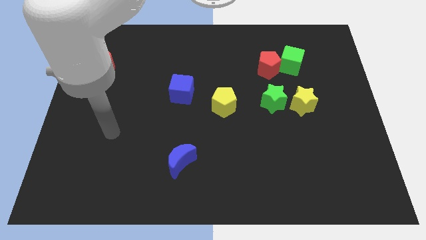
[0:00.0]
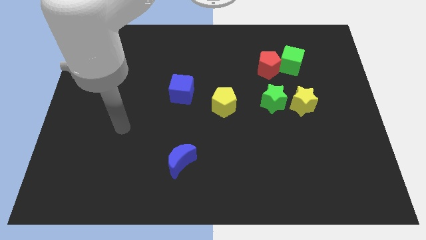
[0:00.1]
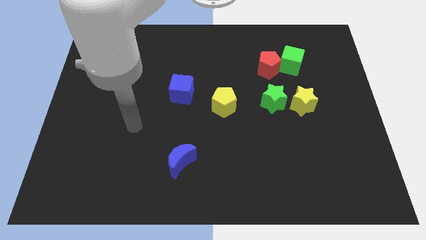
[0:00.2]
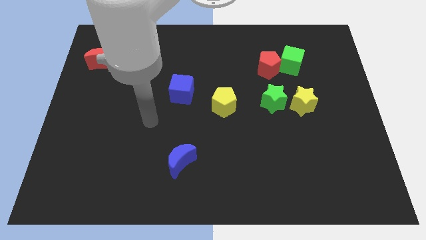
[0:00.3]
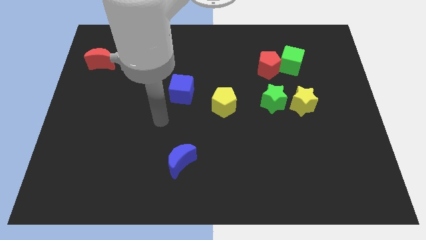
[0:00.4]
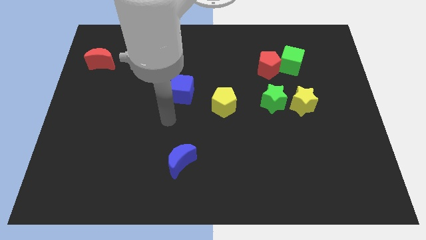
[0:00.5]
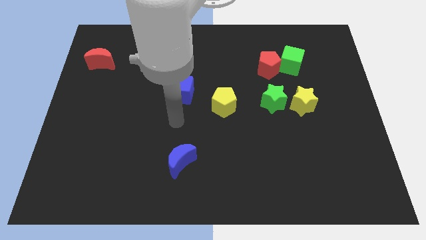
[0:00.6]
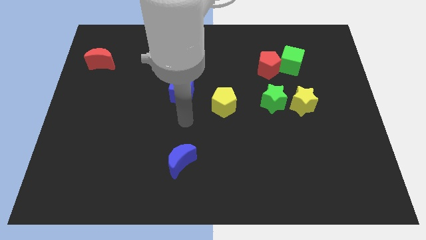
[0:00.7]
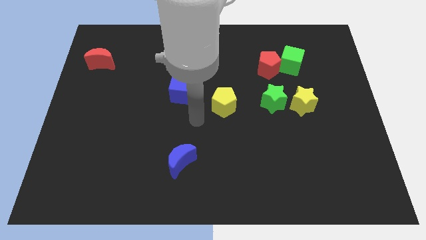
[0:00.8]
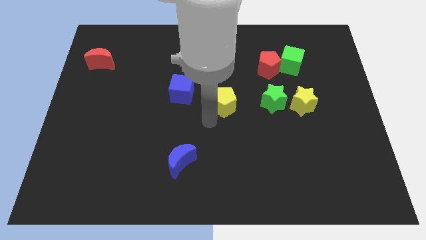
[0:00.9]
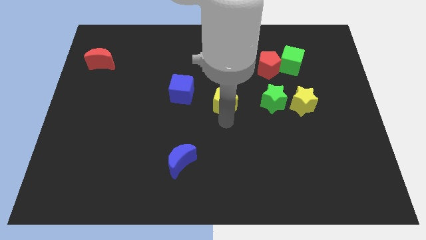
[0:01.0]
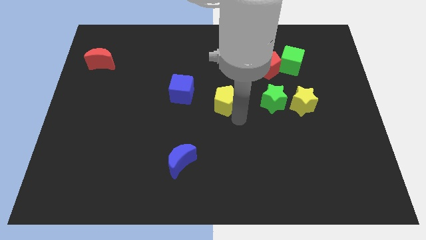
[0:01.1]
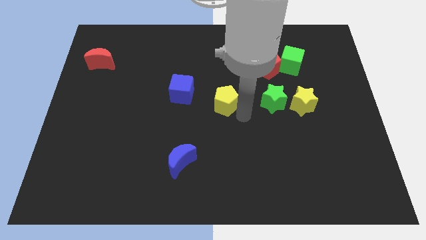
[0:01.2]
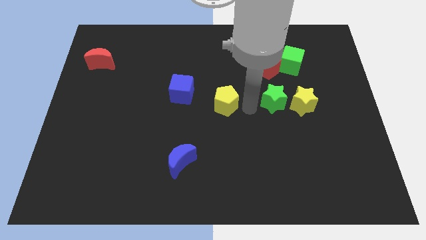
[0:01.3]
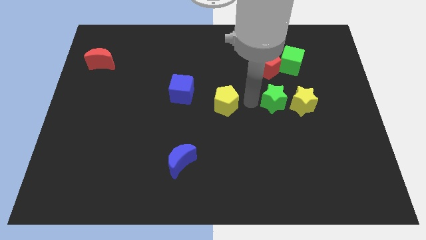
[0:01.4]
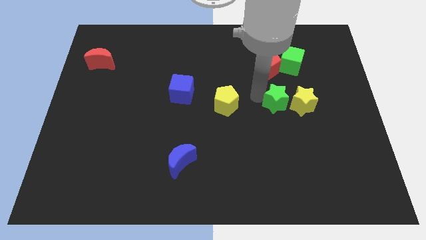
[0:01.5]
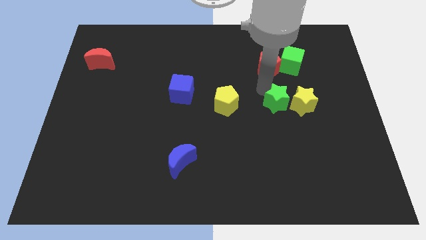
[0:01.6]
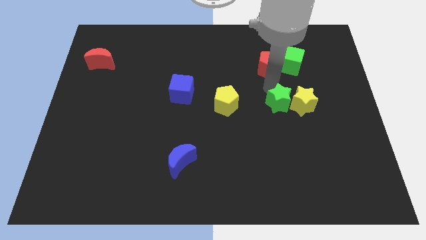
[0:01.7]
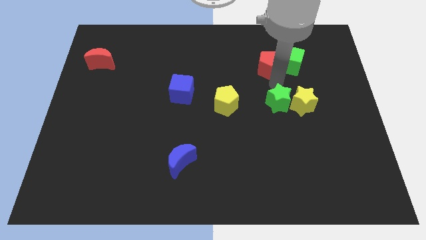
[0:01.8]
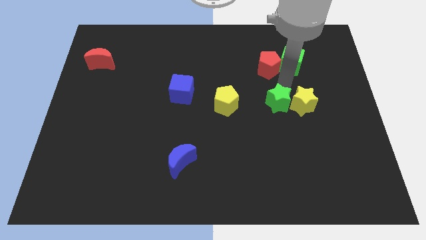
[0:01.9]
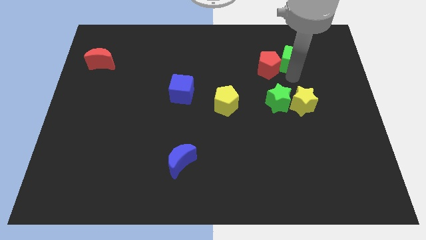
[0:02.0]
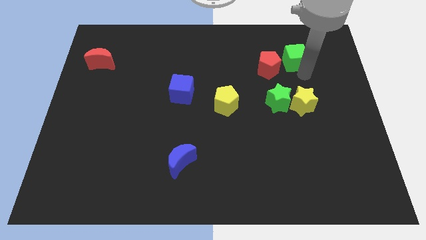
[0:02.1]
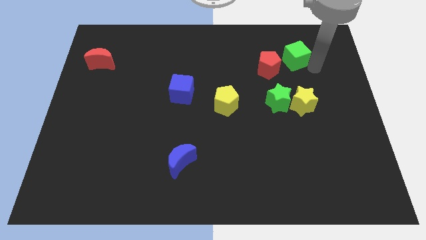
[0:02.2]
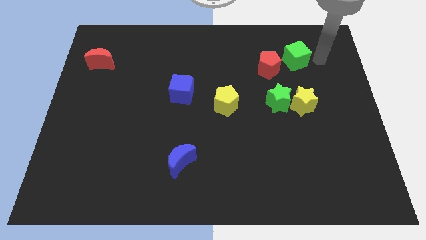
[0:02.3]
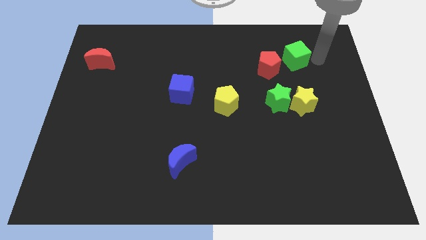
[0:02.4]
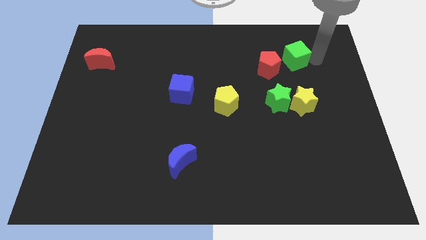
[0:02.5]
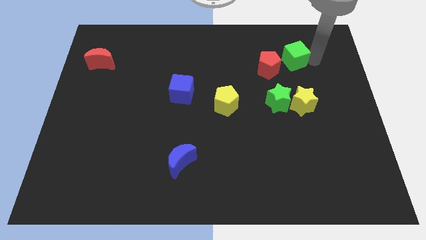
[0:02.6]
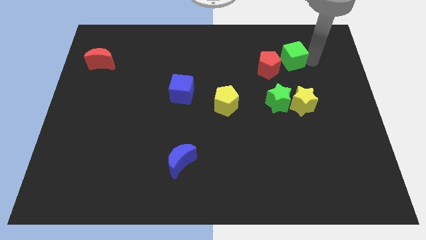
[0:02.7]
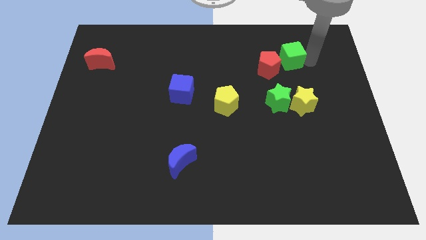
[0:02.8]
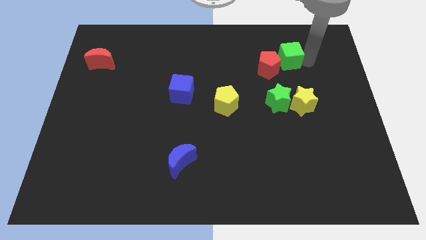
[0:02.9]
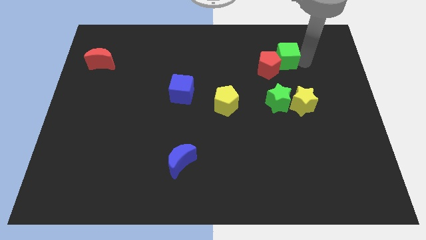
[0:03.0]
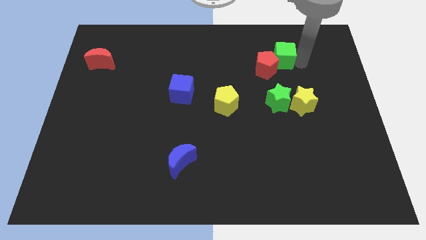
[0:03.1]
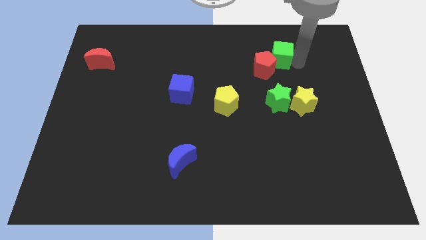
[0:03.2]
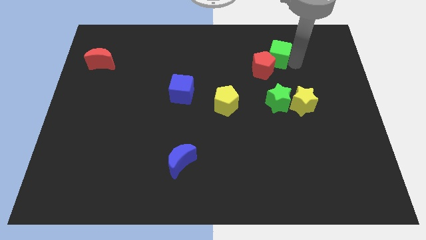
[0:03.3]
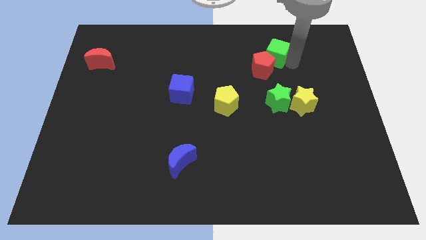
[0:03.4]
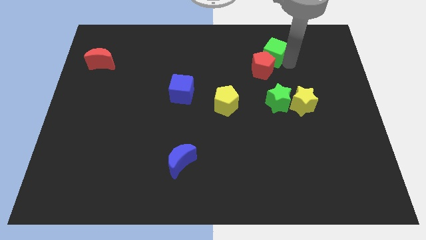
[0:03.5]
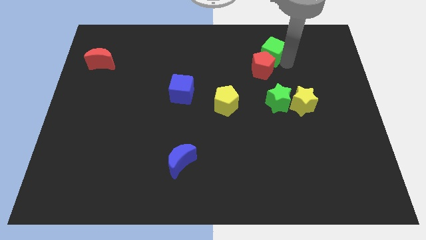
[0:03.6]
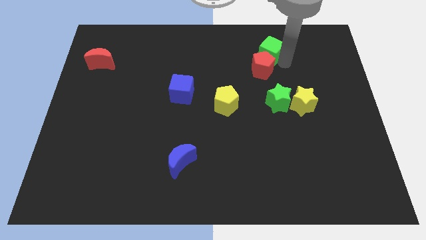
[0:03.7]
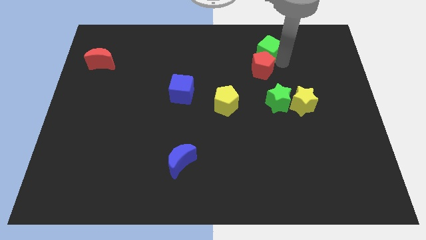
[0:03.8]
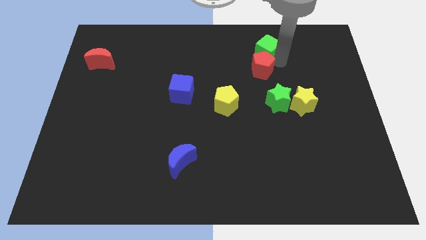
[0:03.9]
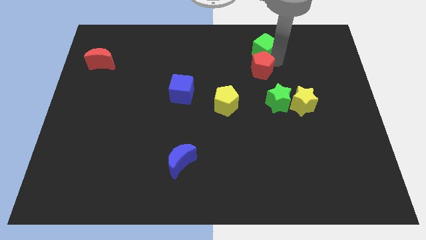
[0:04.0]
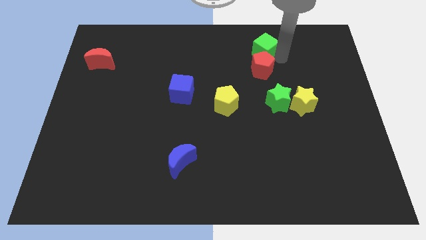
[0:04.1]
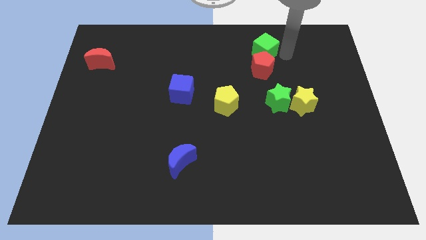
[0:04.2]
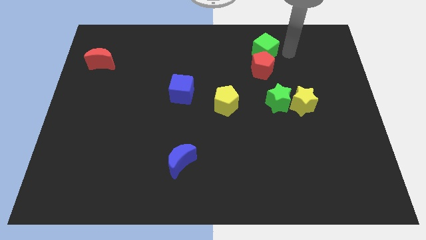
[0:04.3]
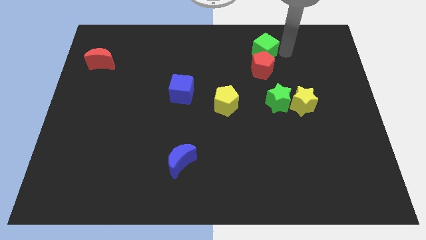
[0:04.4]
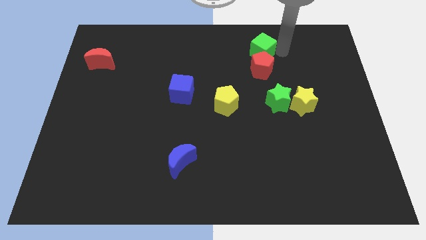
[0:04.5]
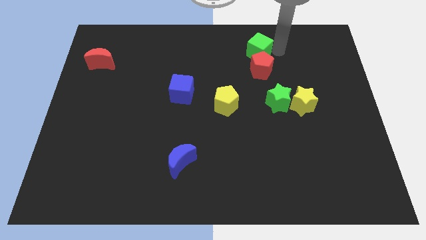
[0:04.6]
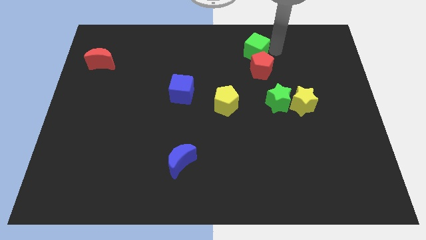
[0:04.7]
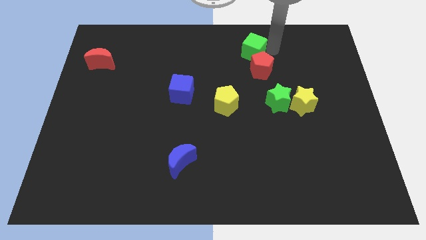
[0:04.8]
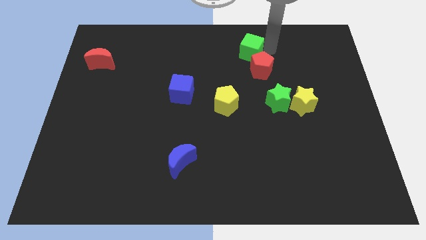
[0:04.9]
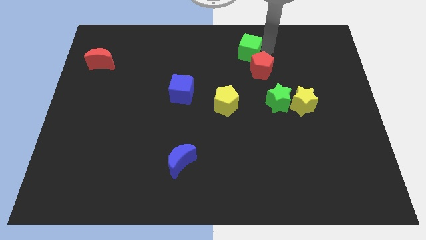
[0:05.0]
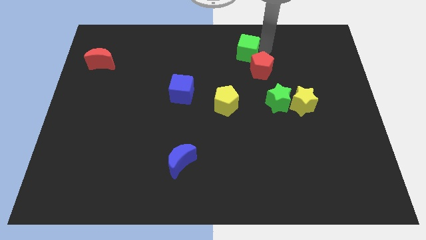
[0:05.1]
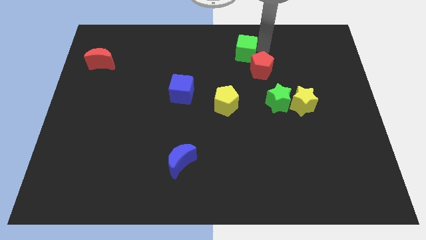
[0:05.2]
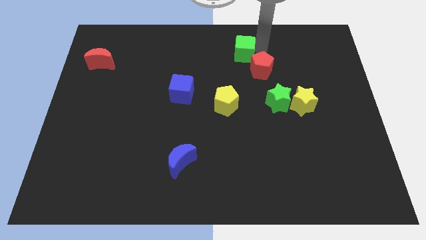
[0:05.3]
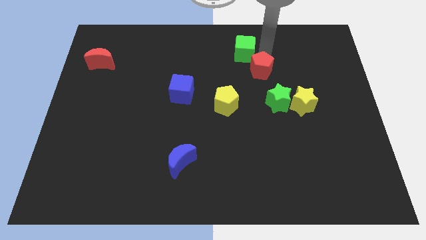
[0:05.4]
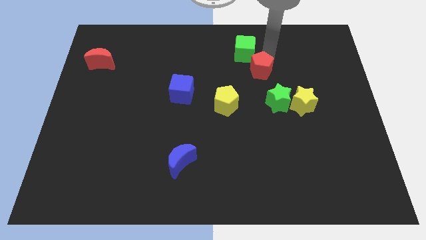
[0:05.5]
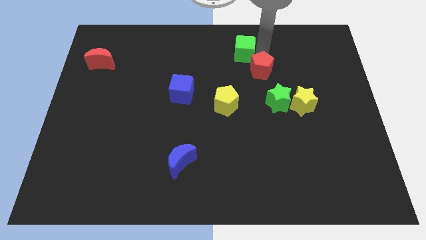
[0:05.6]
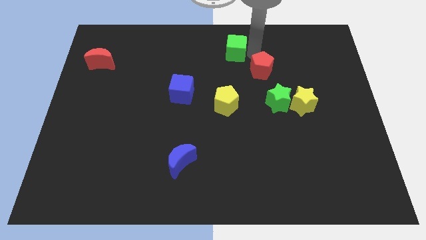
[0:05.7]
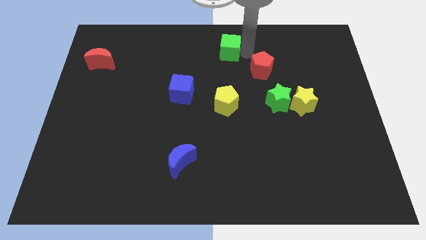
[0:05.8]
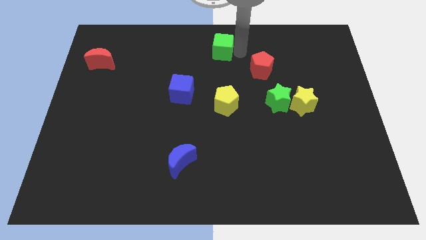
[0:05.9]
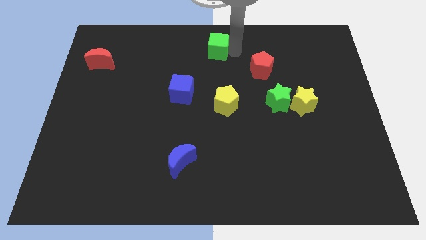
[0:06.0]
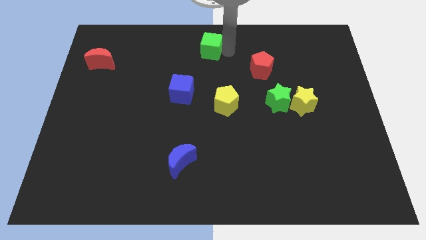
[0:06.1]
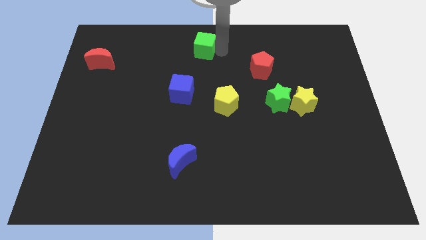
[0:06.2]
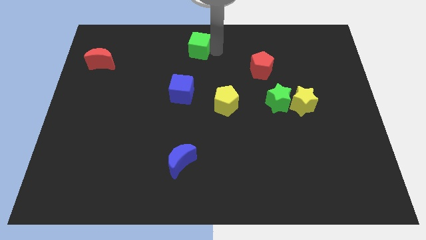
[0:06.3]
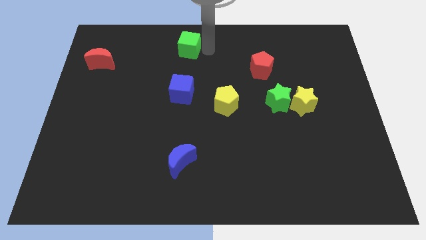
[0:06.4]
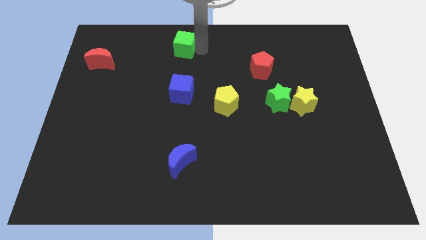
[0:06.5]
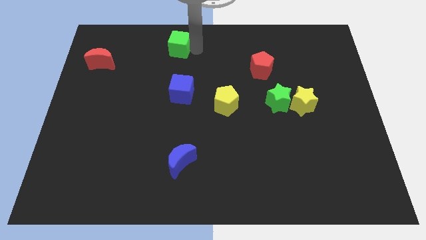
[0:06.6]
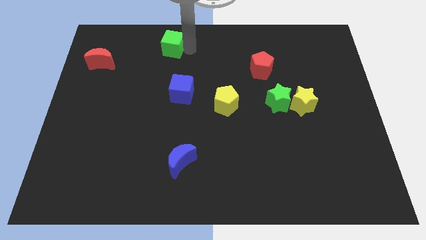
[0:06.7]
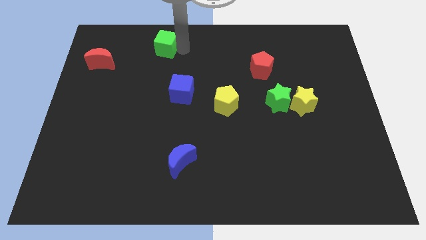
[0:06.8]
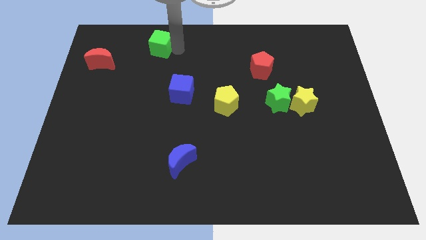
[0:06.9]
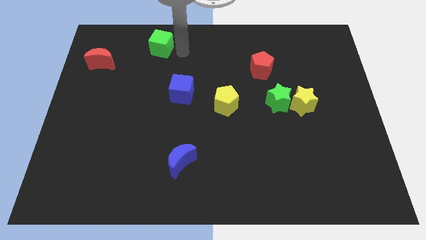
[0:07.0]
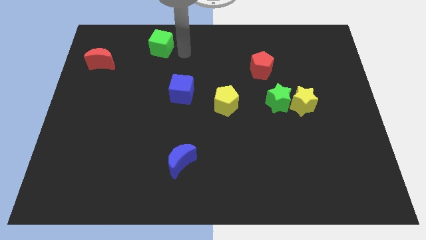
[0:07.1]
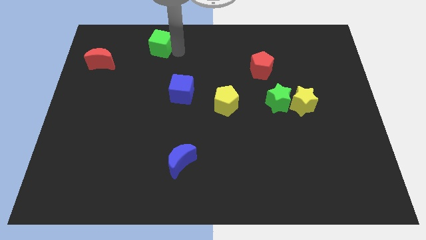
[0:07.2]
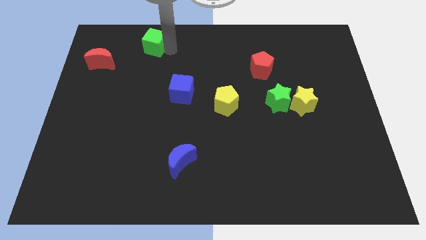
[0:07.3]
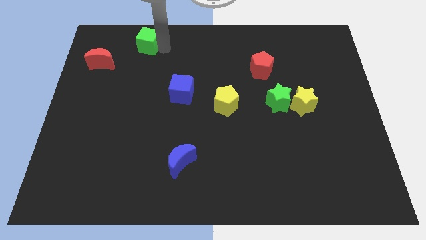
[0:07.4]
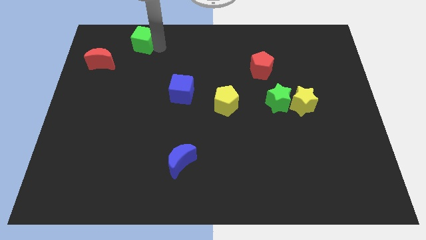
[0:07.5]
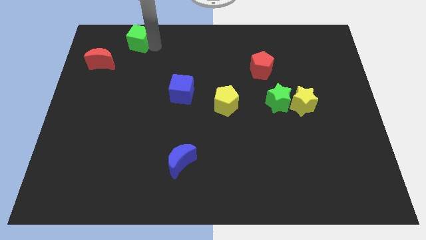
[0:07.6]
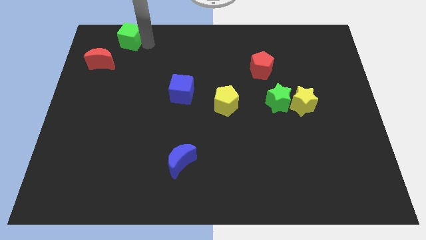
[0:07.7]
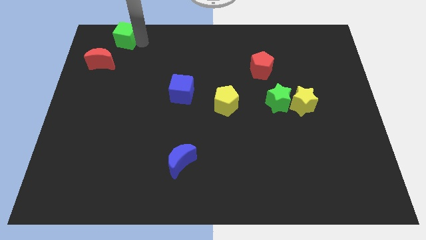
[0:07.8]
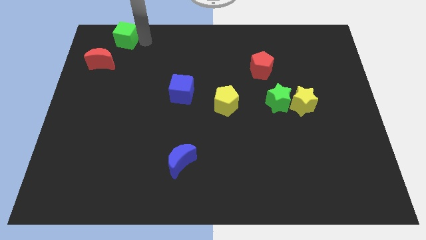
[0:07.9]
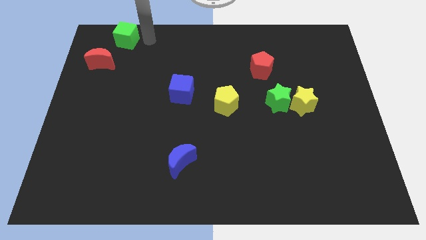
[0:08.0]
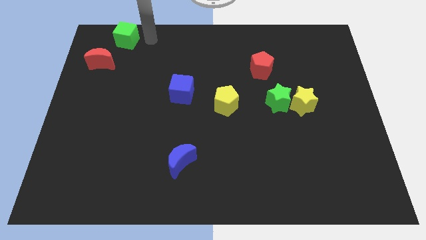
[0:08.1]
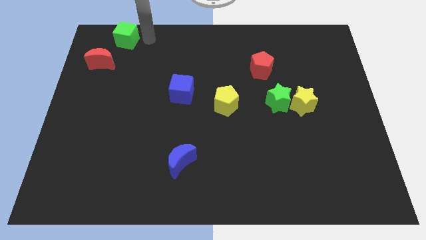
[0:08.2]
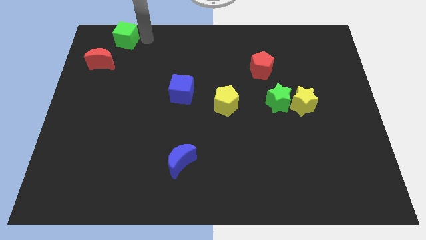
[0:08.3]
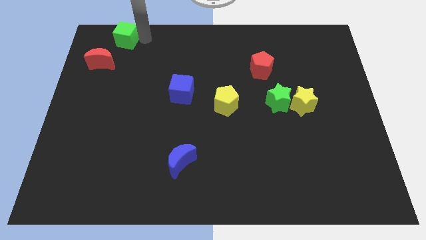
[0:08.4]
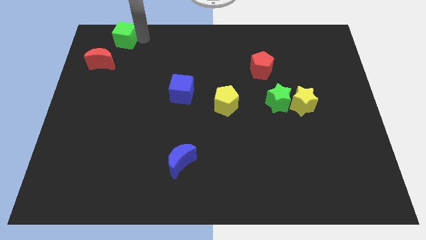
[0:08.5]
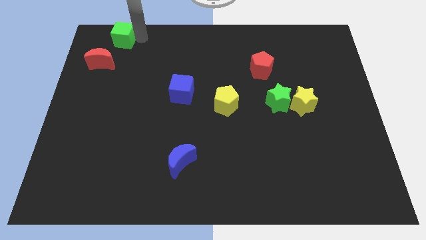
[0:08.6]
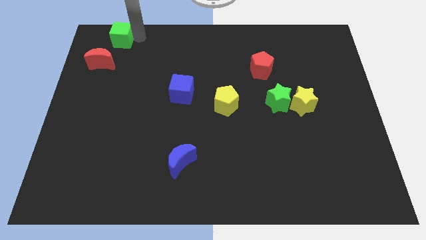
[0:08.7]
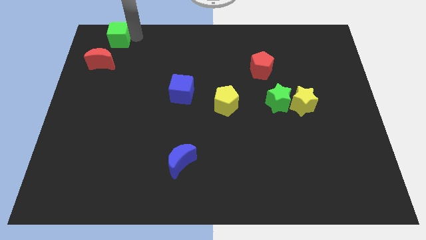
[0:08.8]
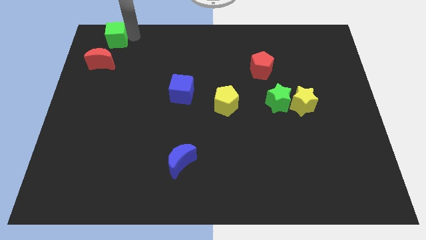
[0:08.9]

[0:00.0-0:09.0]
move the green cube to the top left corner
